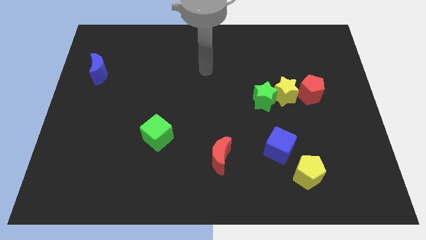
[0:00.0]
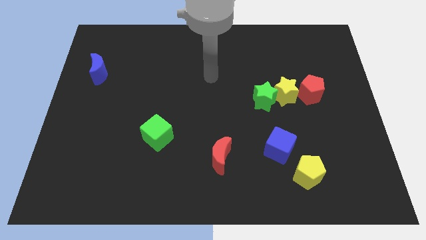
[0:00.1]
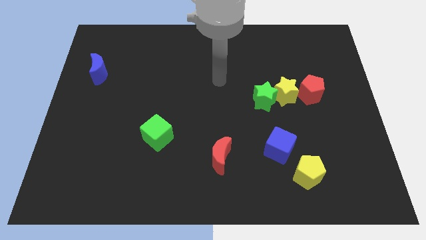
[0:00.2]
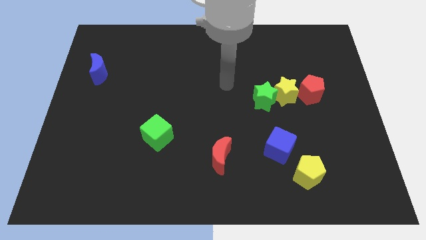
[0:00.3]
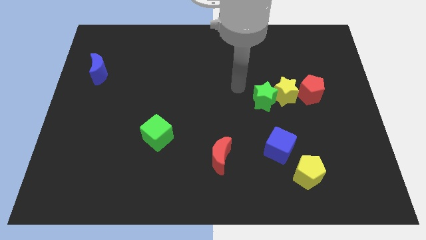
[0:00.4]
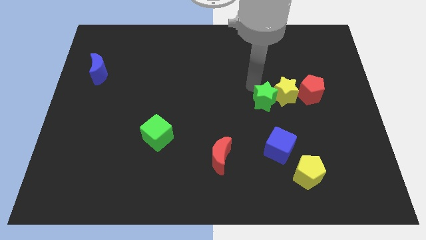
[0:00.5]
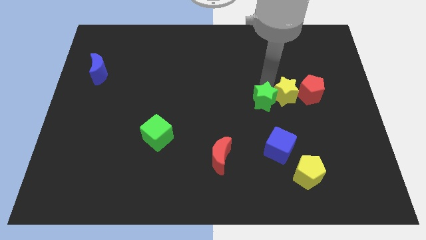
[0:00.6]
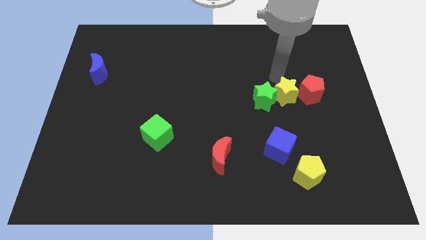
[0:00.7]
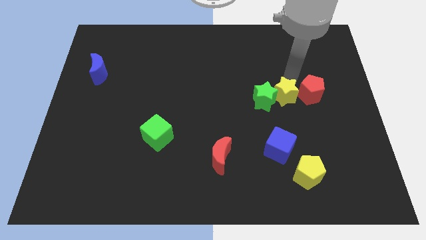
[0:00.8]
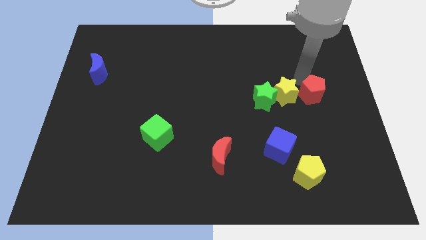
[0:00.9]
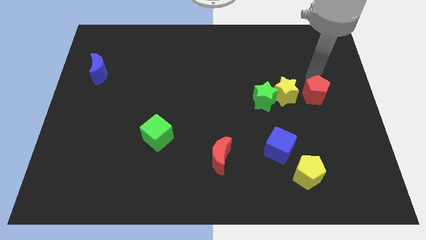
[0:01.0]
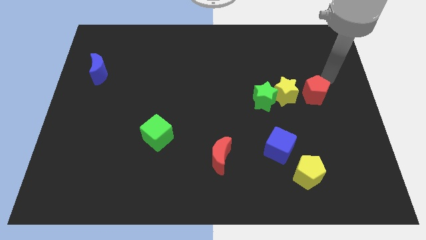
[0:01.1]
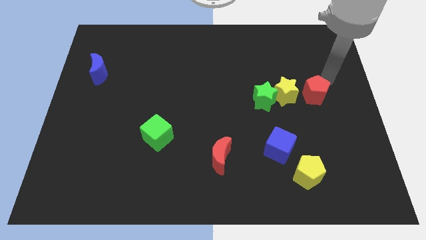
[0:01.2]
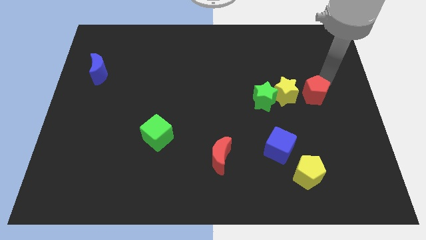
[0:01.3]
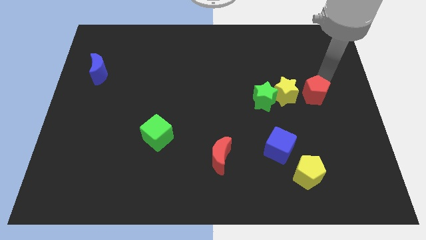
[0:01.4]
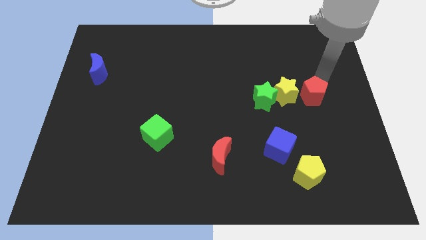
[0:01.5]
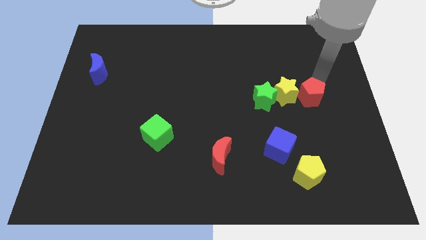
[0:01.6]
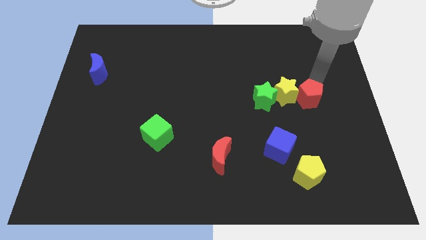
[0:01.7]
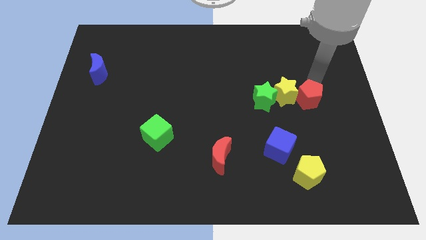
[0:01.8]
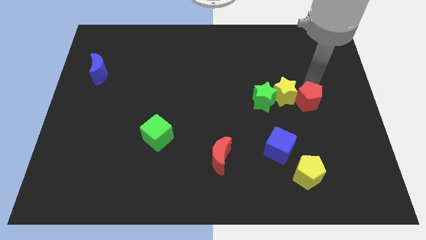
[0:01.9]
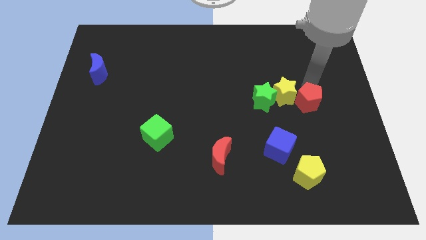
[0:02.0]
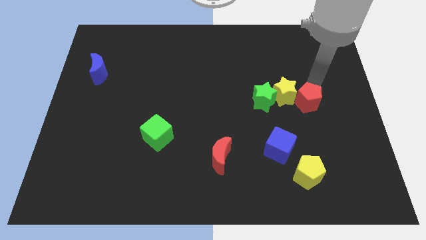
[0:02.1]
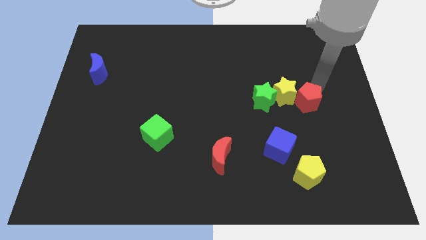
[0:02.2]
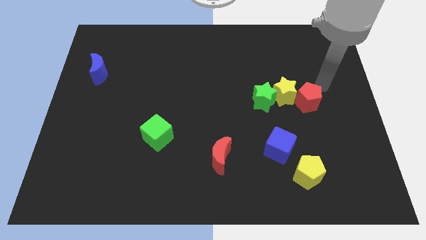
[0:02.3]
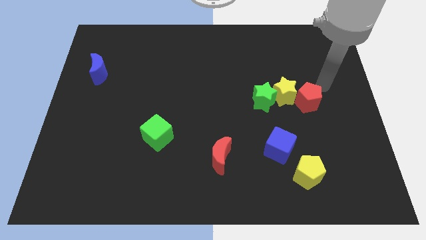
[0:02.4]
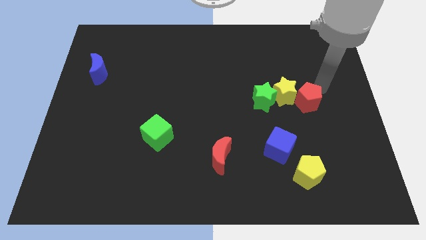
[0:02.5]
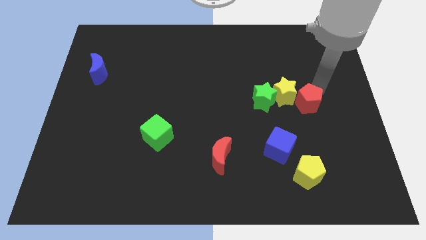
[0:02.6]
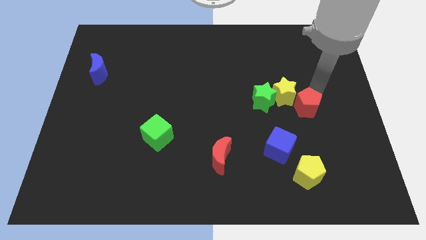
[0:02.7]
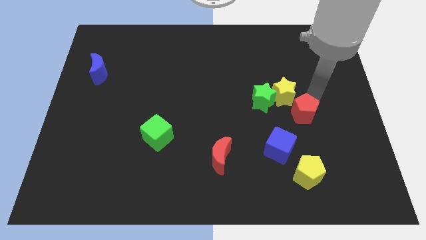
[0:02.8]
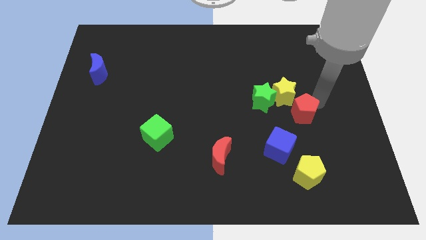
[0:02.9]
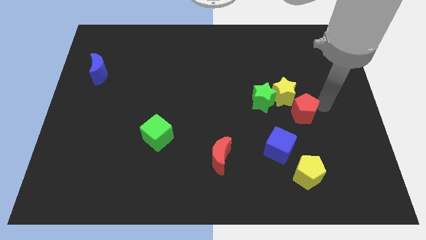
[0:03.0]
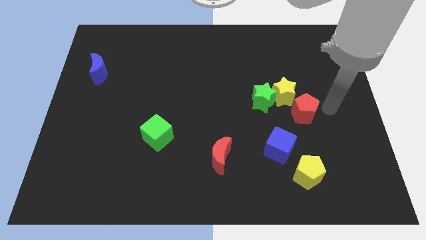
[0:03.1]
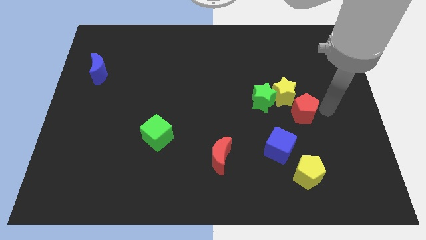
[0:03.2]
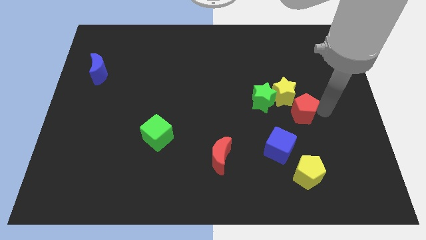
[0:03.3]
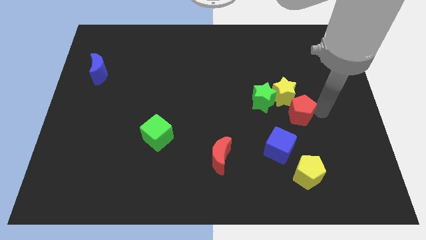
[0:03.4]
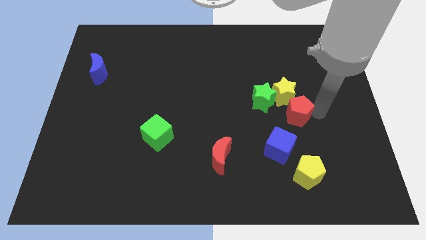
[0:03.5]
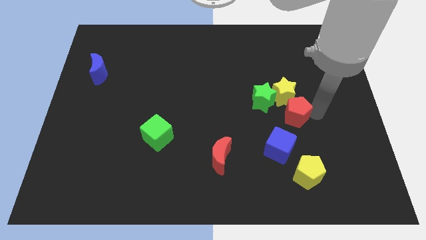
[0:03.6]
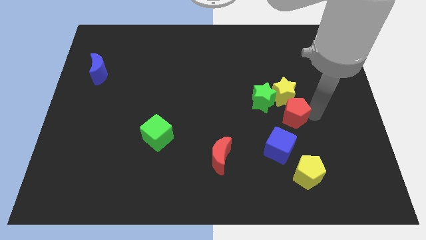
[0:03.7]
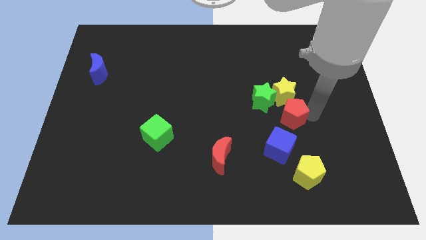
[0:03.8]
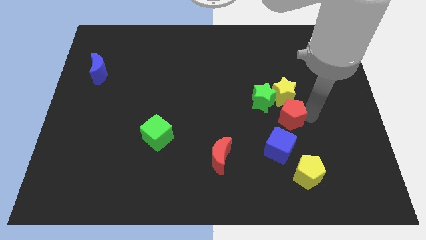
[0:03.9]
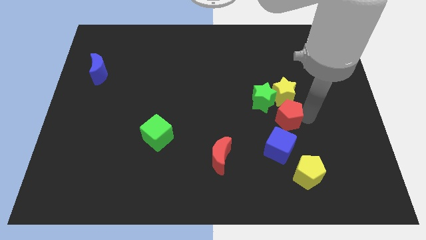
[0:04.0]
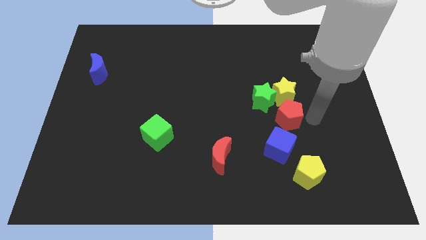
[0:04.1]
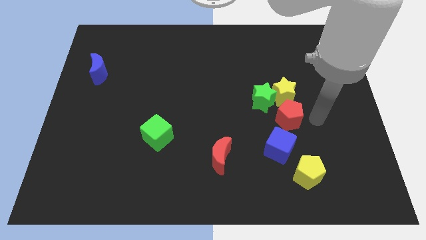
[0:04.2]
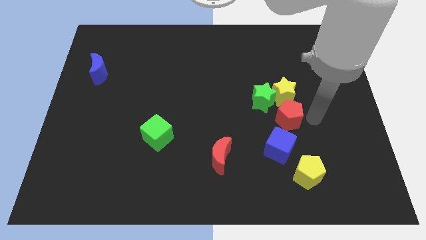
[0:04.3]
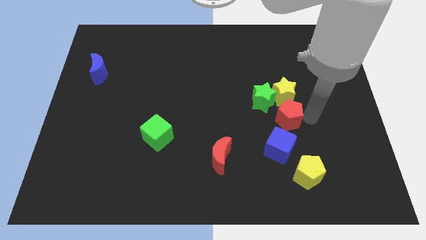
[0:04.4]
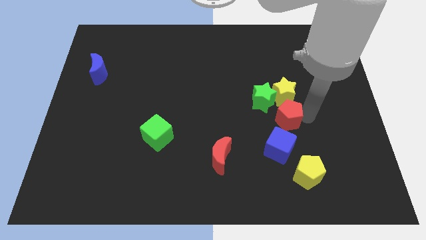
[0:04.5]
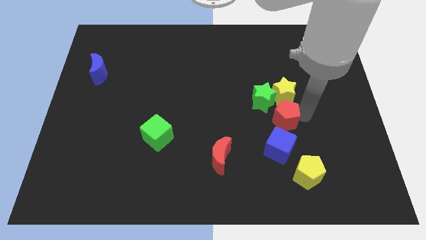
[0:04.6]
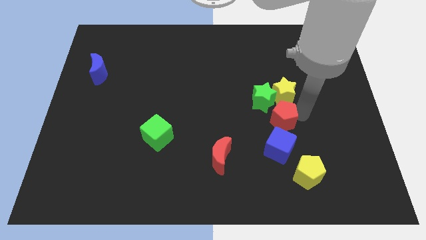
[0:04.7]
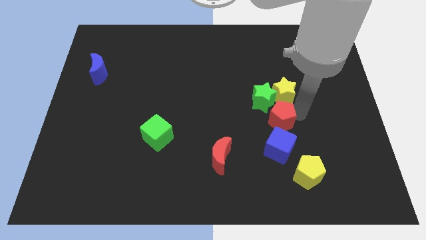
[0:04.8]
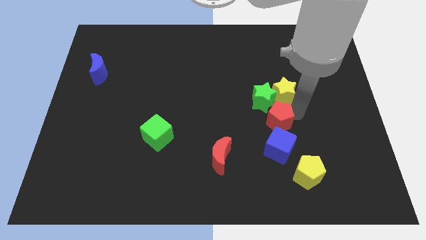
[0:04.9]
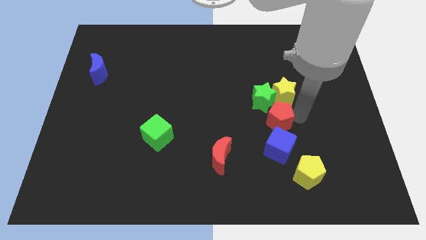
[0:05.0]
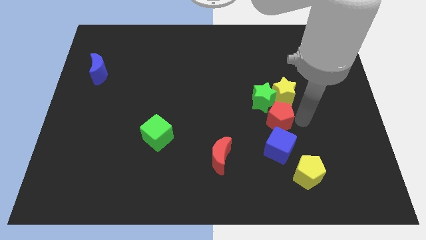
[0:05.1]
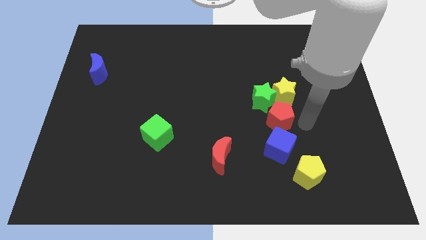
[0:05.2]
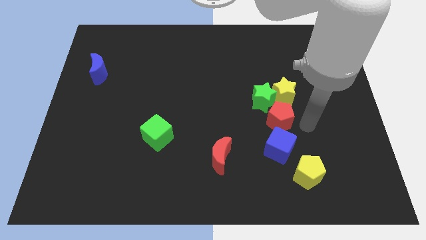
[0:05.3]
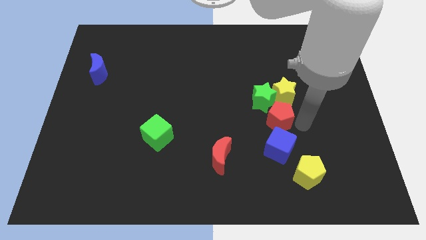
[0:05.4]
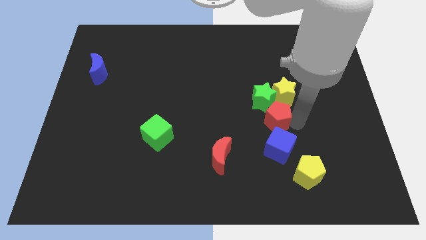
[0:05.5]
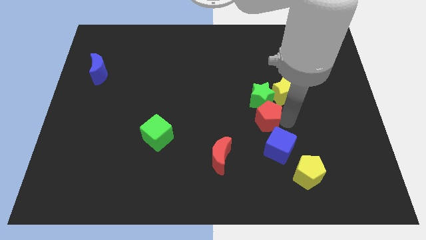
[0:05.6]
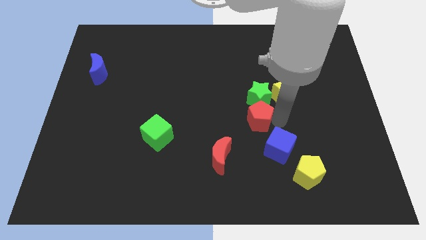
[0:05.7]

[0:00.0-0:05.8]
slide the red pentagon to the middle
